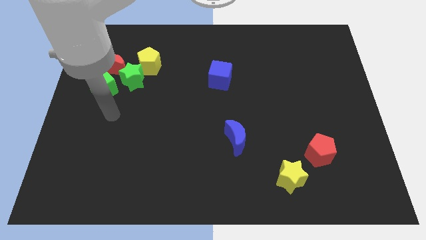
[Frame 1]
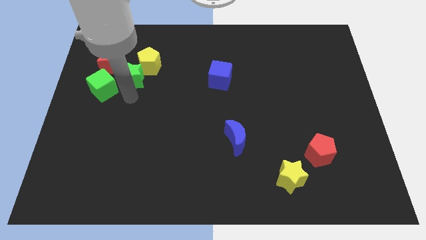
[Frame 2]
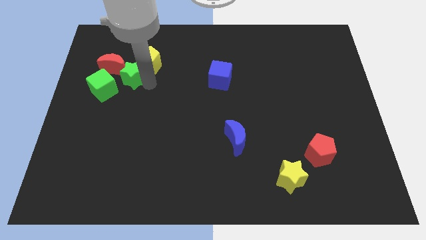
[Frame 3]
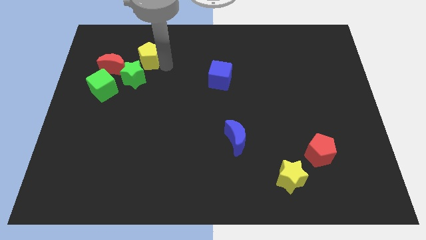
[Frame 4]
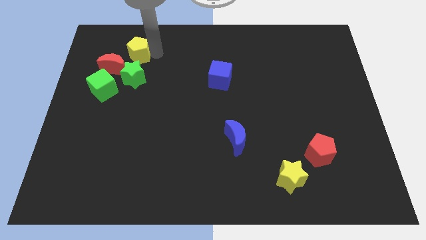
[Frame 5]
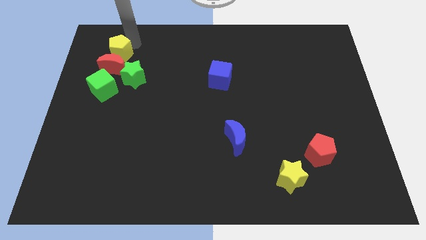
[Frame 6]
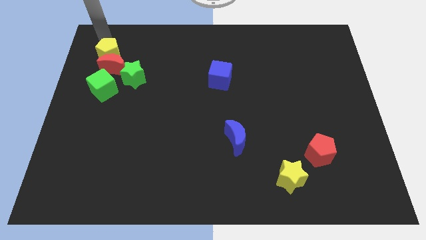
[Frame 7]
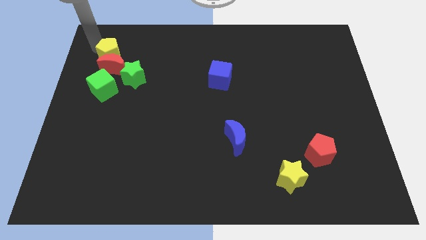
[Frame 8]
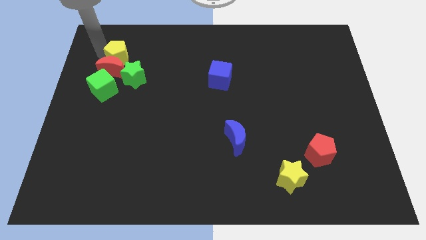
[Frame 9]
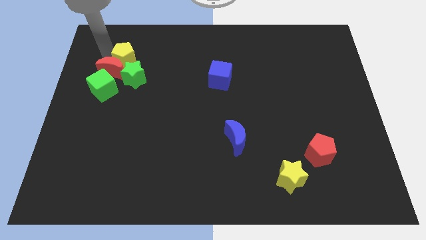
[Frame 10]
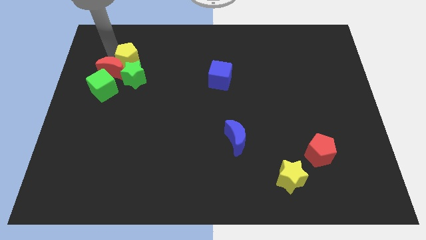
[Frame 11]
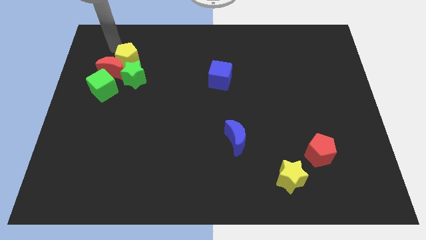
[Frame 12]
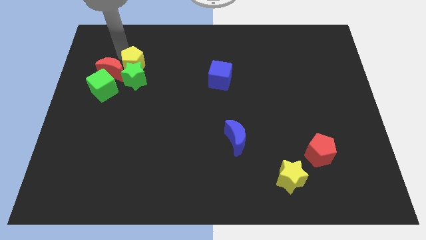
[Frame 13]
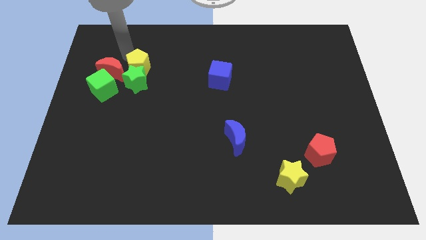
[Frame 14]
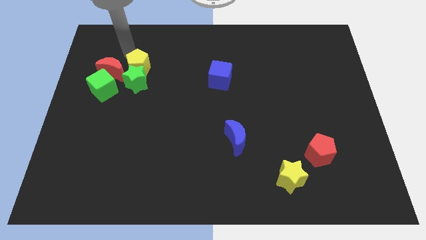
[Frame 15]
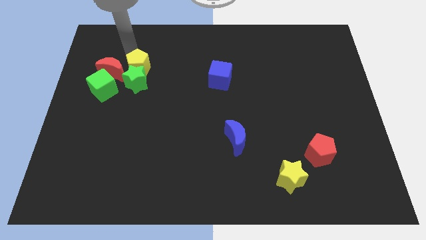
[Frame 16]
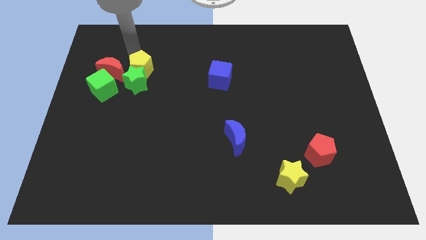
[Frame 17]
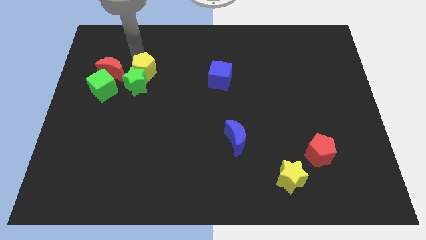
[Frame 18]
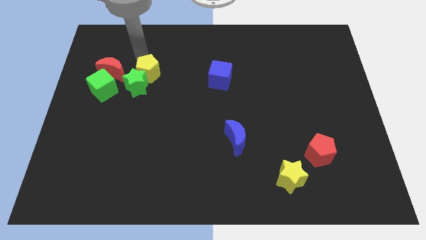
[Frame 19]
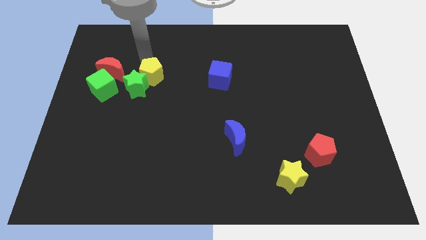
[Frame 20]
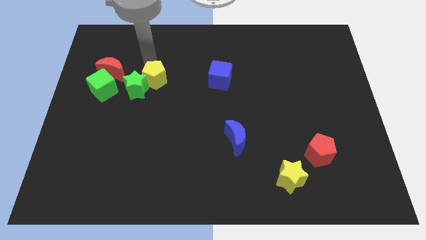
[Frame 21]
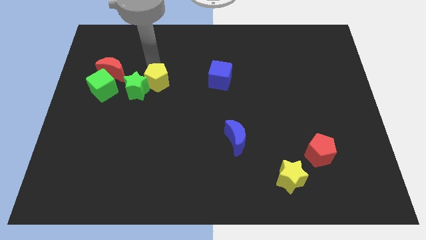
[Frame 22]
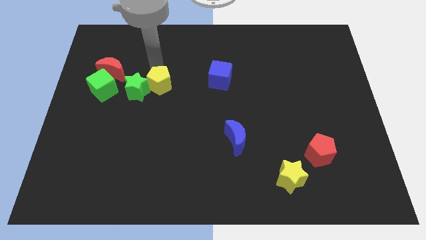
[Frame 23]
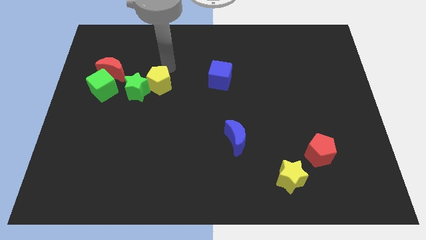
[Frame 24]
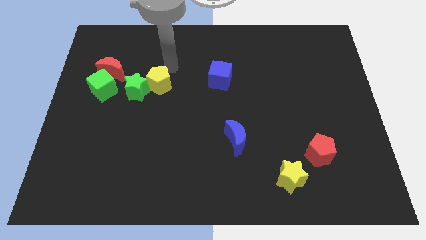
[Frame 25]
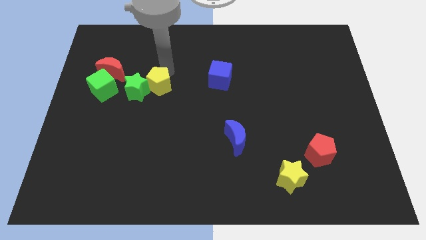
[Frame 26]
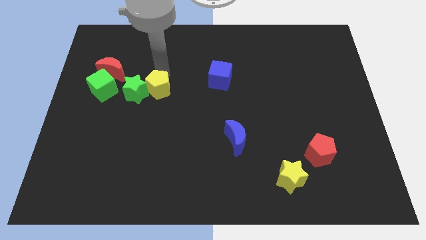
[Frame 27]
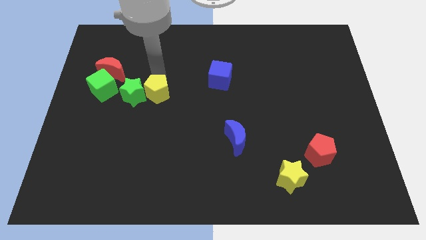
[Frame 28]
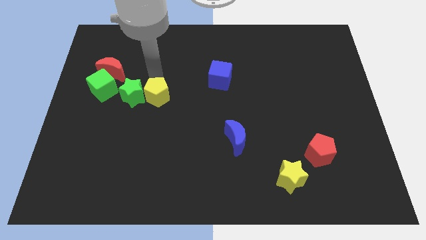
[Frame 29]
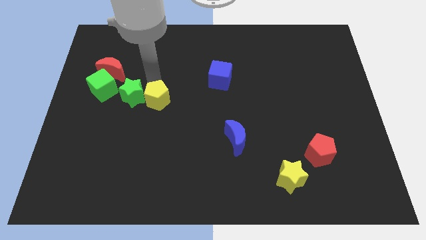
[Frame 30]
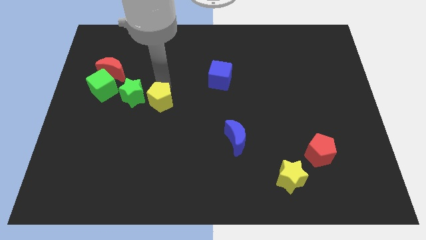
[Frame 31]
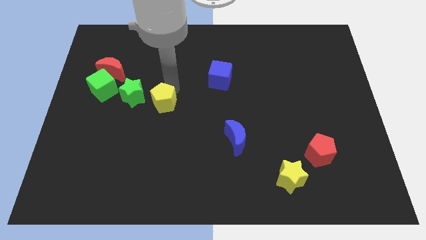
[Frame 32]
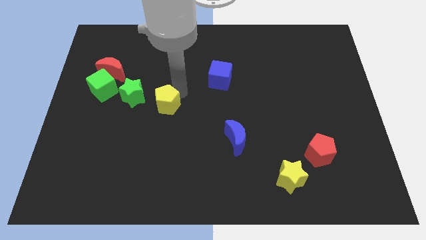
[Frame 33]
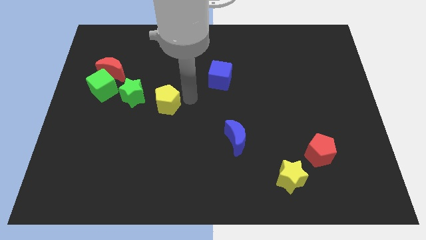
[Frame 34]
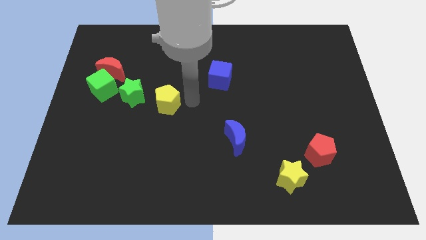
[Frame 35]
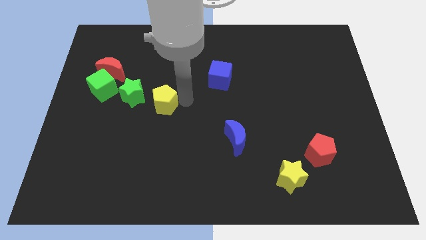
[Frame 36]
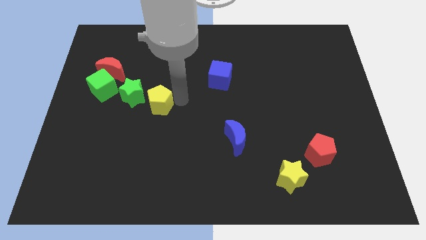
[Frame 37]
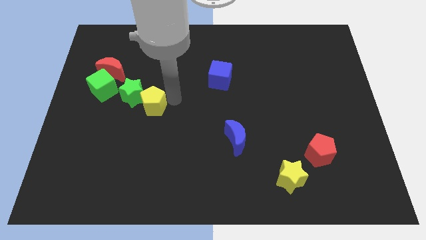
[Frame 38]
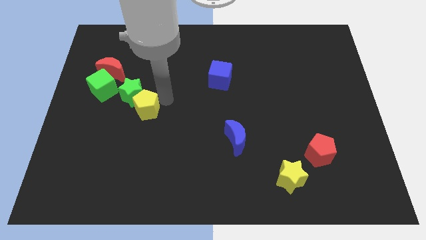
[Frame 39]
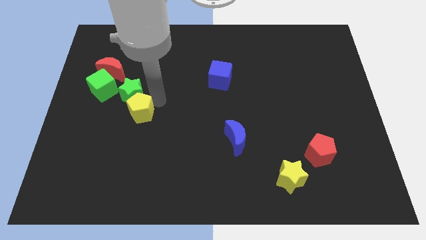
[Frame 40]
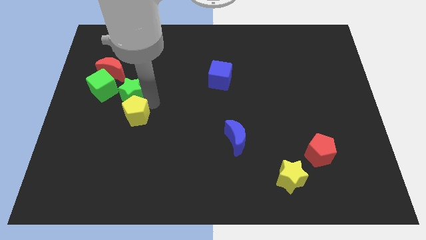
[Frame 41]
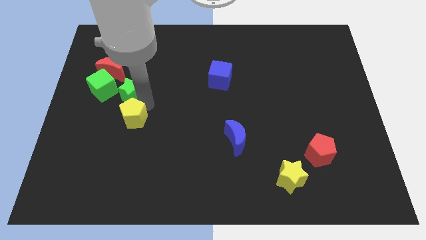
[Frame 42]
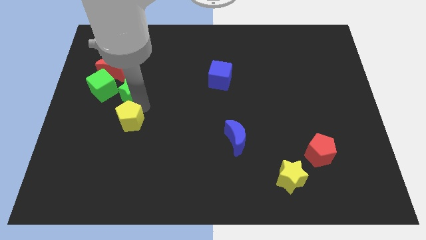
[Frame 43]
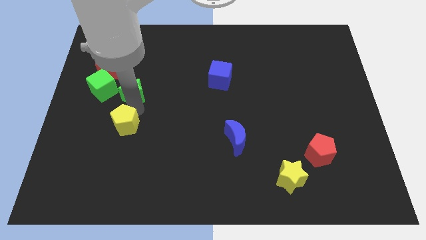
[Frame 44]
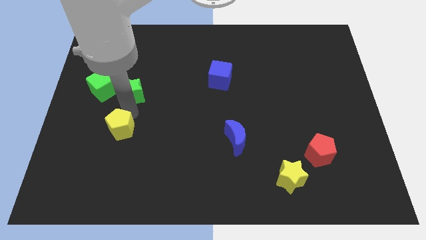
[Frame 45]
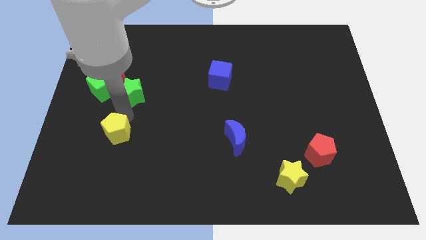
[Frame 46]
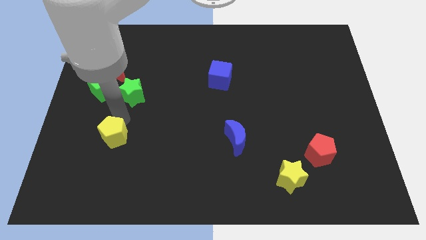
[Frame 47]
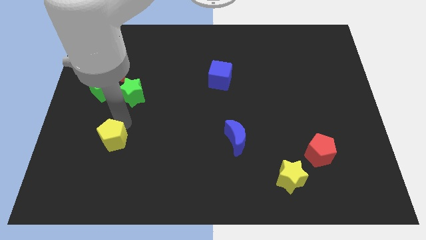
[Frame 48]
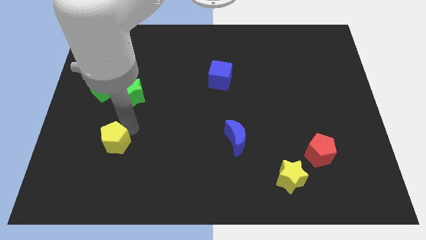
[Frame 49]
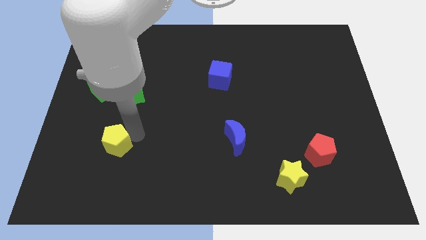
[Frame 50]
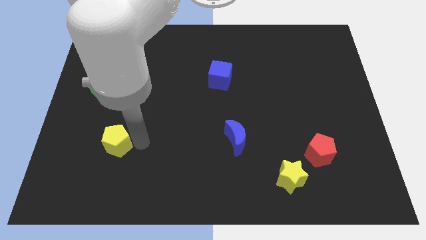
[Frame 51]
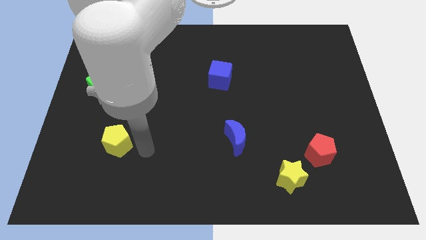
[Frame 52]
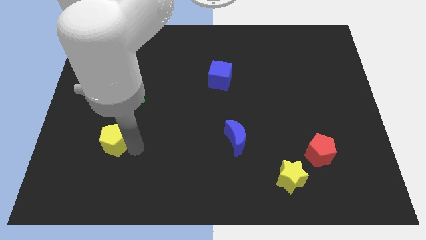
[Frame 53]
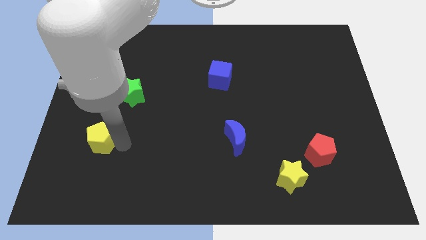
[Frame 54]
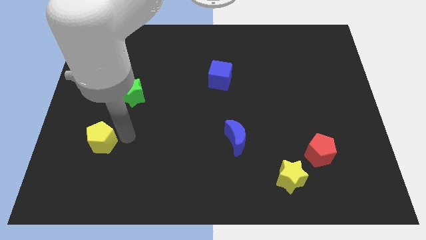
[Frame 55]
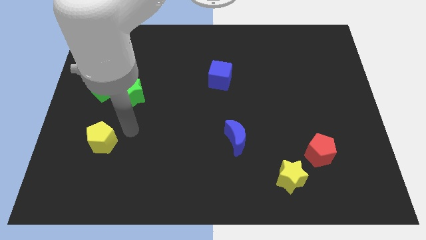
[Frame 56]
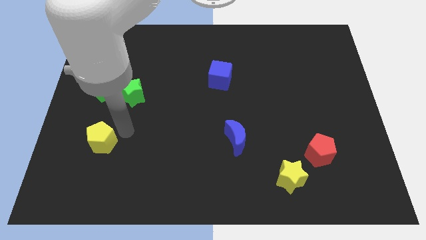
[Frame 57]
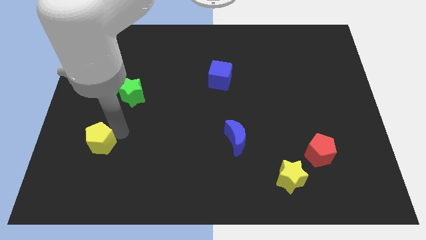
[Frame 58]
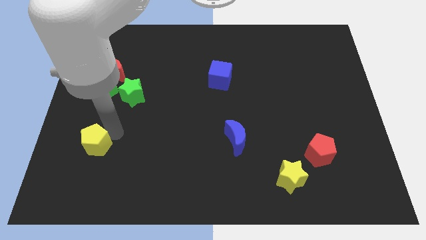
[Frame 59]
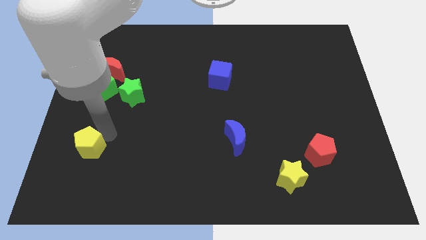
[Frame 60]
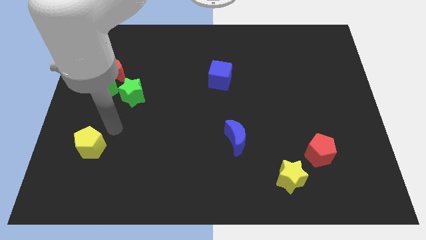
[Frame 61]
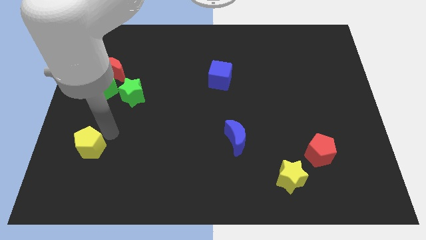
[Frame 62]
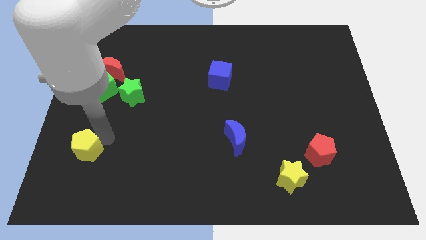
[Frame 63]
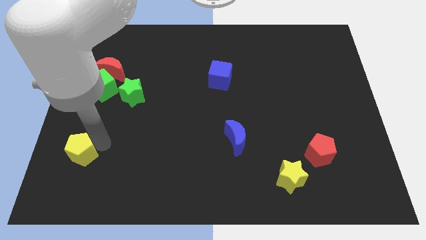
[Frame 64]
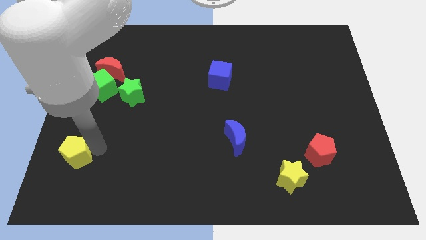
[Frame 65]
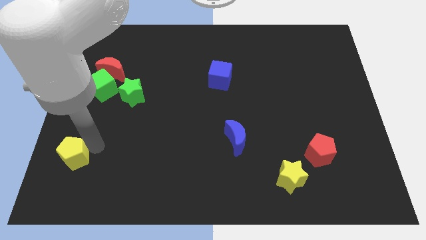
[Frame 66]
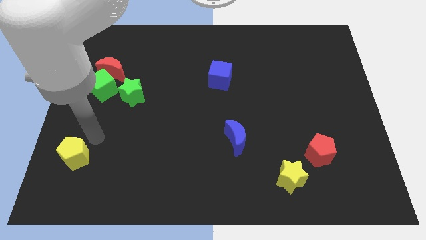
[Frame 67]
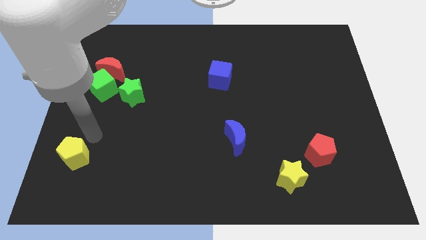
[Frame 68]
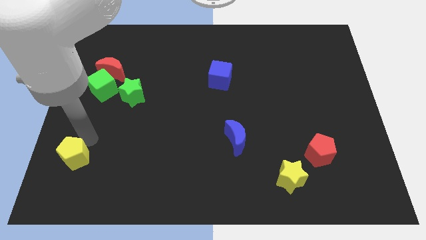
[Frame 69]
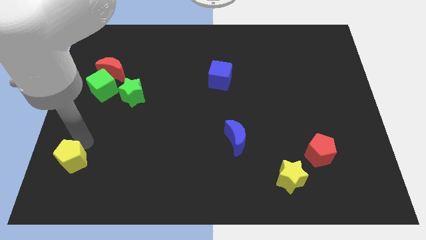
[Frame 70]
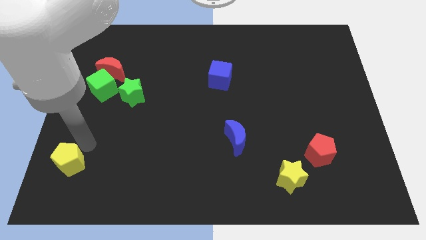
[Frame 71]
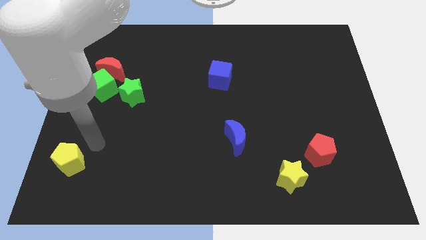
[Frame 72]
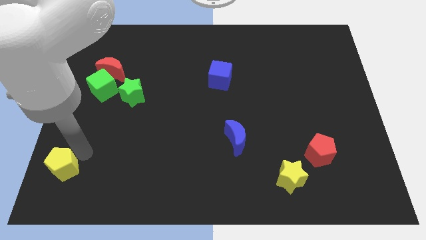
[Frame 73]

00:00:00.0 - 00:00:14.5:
push the yellow pentagon to the bottom left
